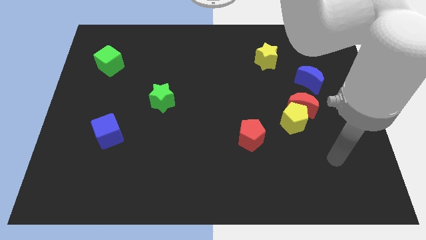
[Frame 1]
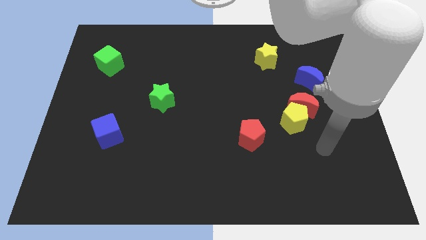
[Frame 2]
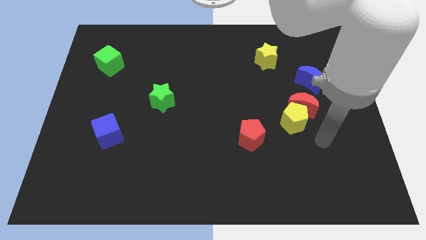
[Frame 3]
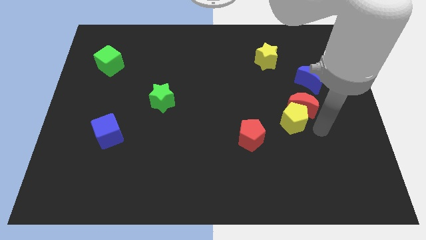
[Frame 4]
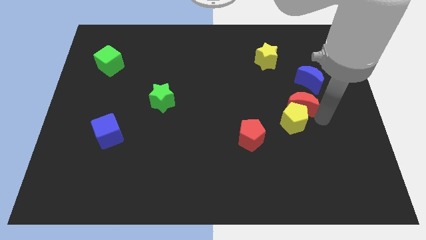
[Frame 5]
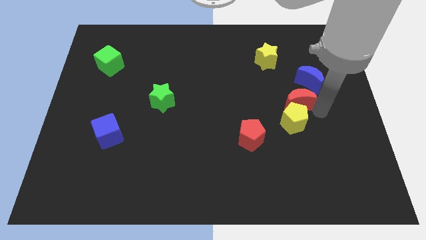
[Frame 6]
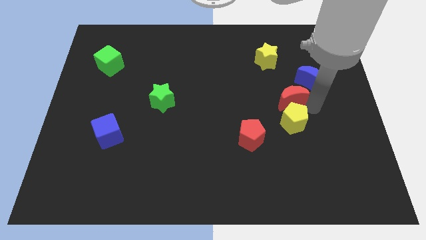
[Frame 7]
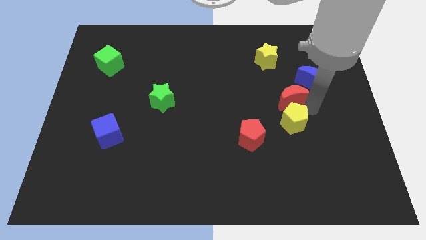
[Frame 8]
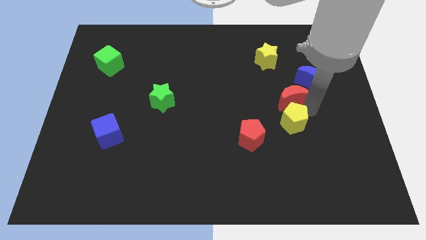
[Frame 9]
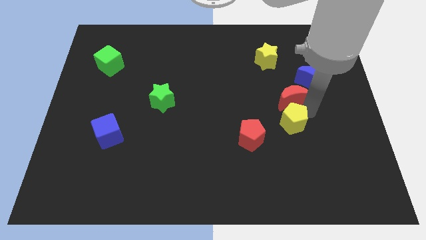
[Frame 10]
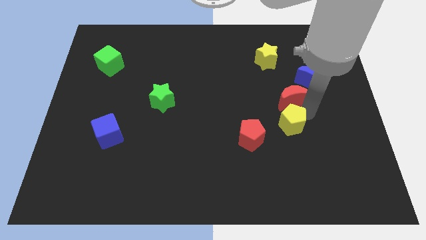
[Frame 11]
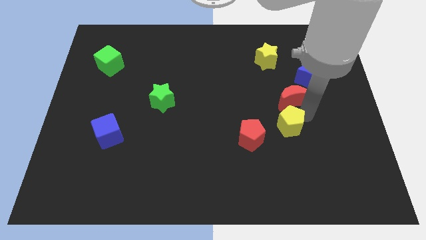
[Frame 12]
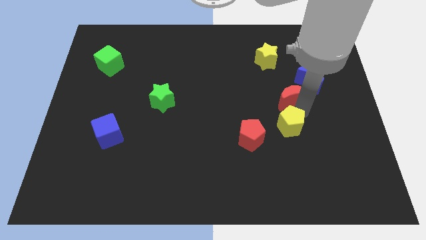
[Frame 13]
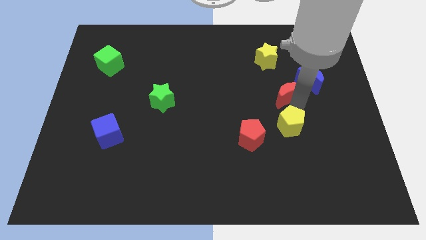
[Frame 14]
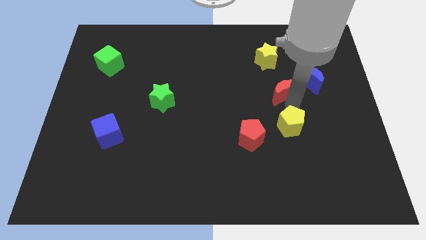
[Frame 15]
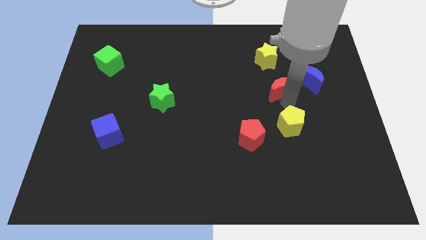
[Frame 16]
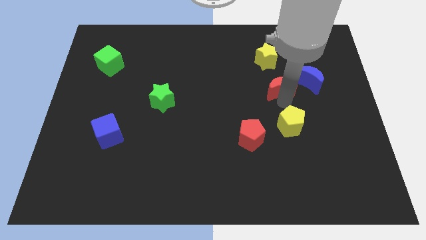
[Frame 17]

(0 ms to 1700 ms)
pull the yellow pentagon apart from the red moon

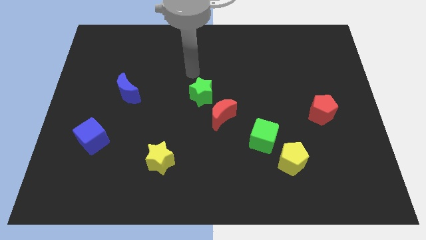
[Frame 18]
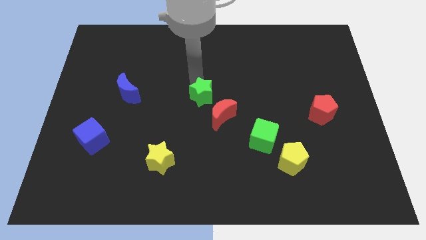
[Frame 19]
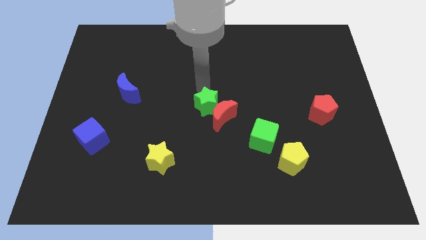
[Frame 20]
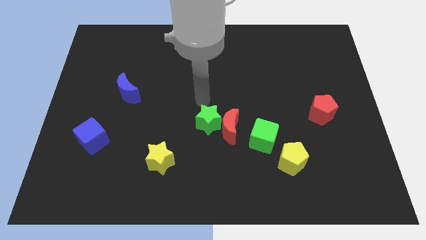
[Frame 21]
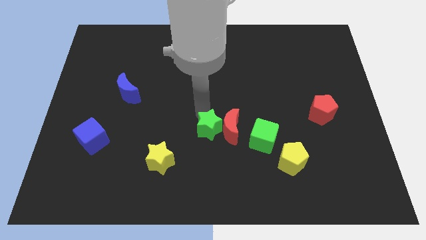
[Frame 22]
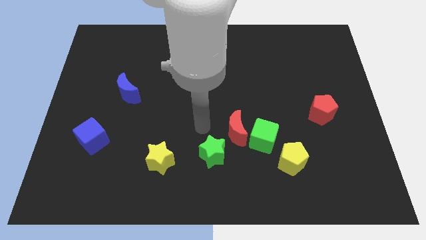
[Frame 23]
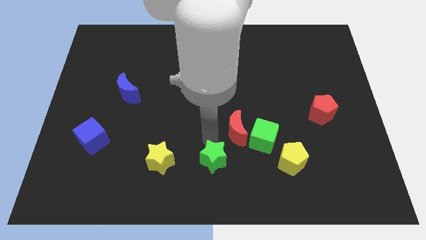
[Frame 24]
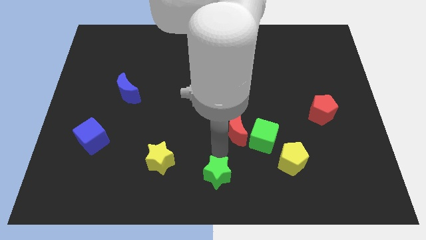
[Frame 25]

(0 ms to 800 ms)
pull the red moon apart from the green star

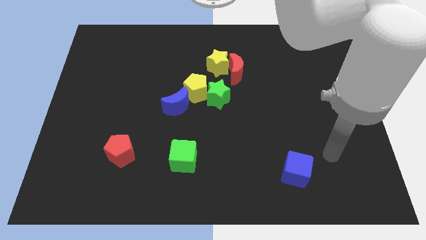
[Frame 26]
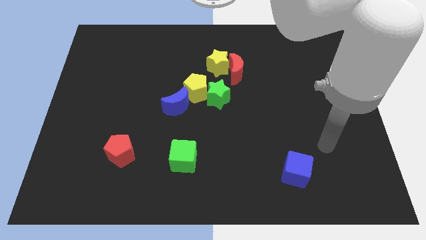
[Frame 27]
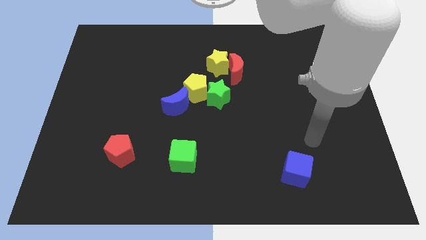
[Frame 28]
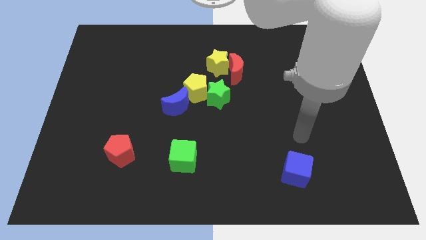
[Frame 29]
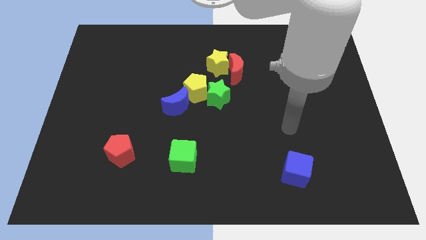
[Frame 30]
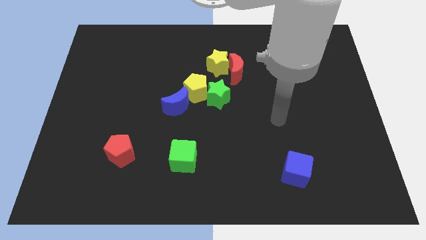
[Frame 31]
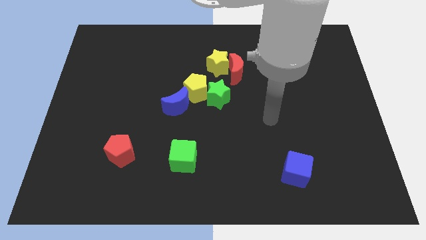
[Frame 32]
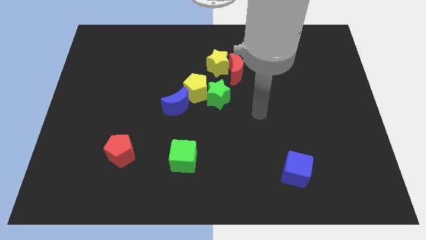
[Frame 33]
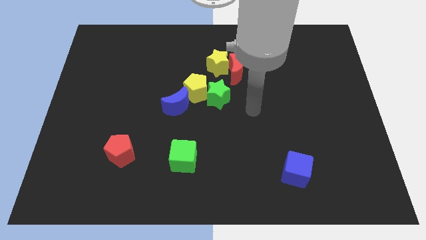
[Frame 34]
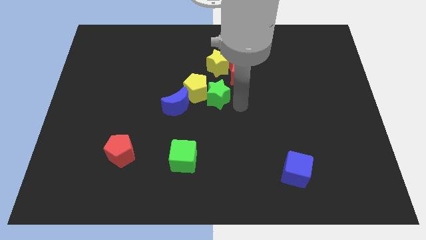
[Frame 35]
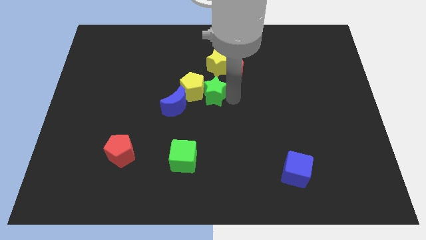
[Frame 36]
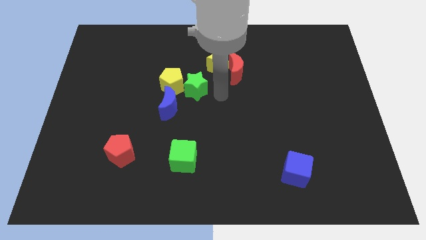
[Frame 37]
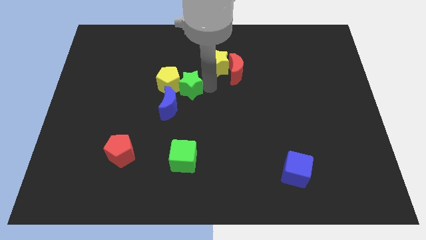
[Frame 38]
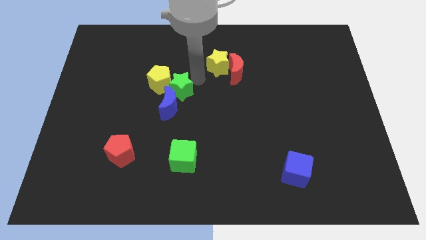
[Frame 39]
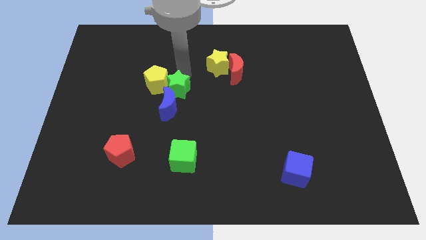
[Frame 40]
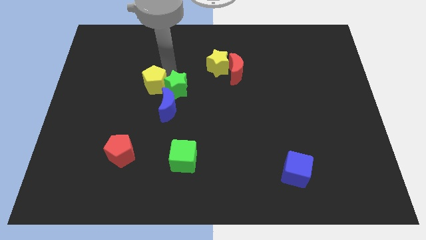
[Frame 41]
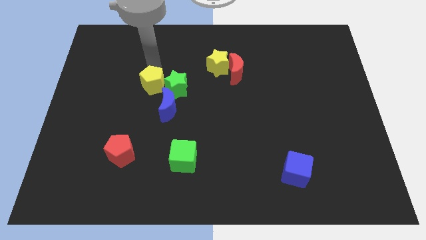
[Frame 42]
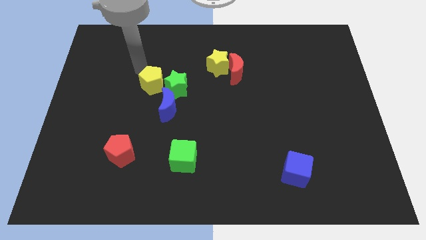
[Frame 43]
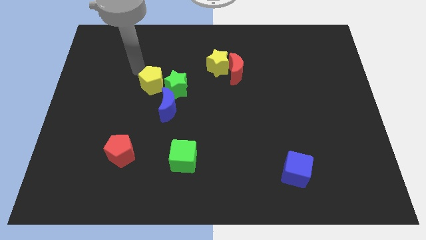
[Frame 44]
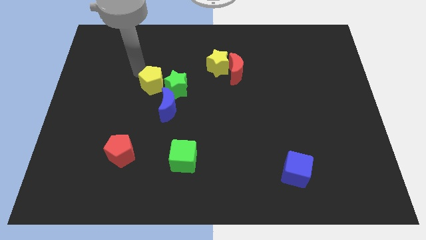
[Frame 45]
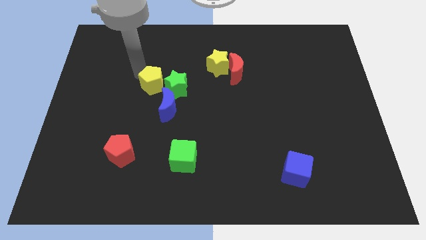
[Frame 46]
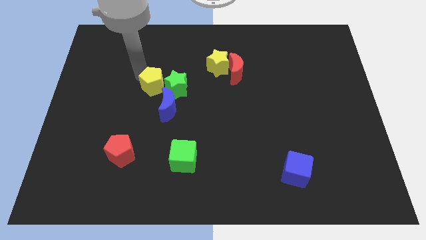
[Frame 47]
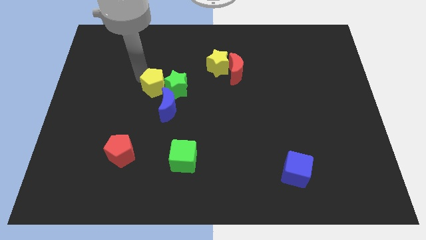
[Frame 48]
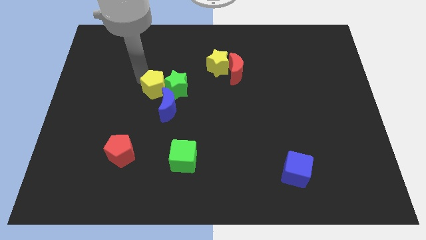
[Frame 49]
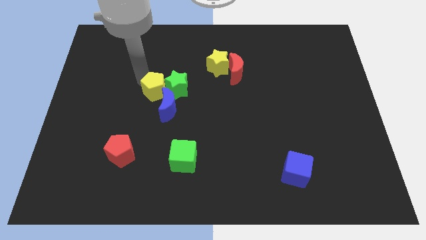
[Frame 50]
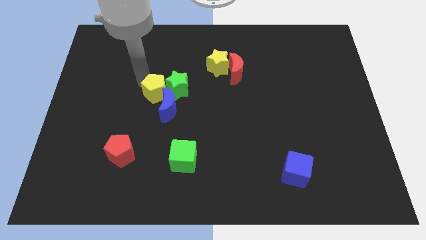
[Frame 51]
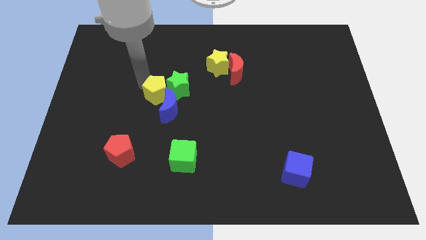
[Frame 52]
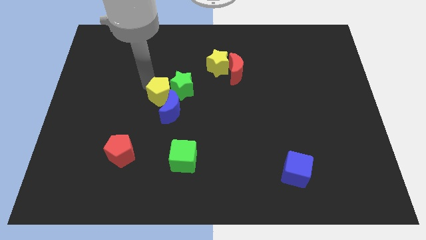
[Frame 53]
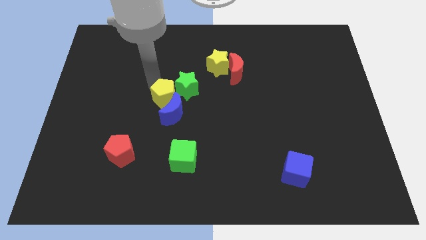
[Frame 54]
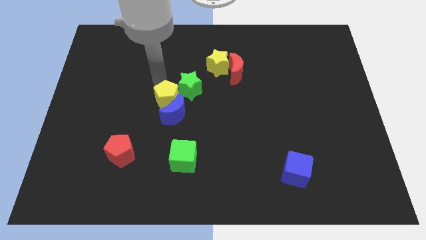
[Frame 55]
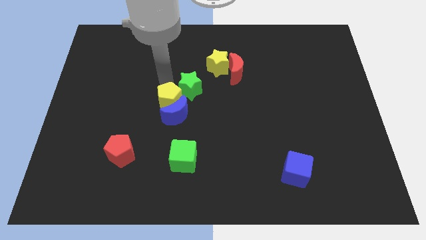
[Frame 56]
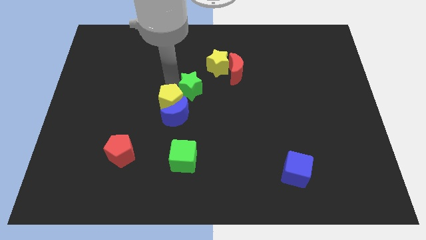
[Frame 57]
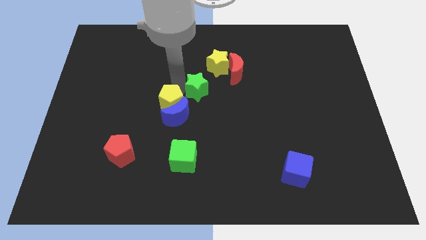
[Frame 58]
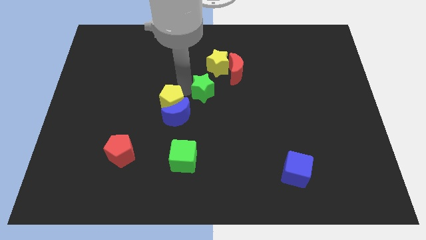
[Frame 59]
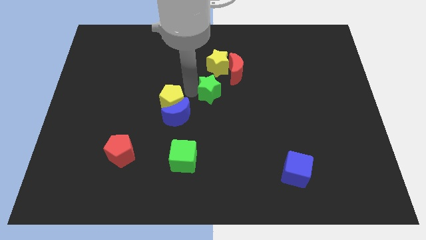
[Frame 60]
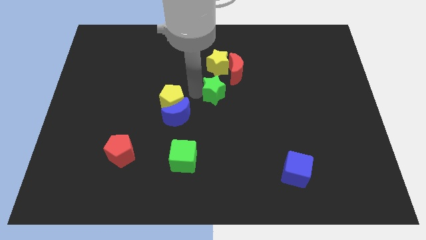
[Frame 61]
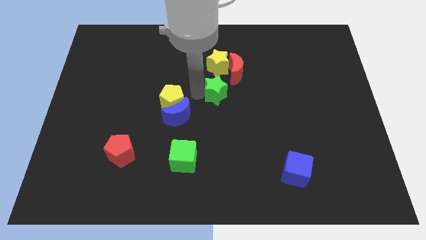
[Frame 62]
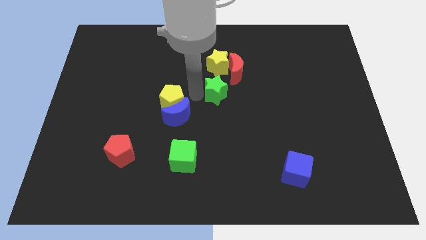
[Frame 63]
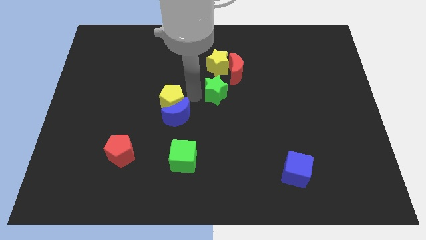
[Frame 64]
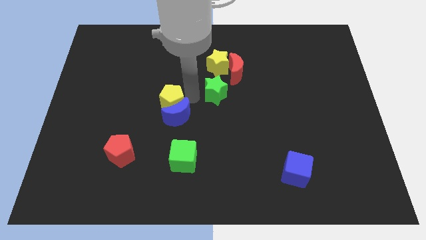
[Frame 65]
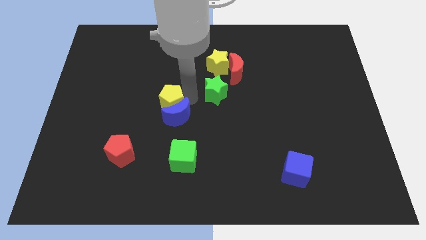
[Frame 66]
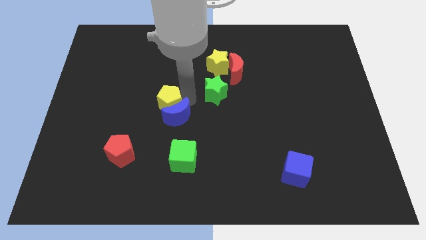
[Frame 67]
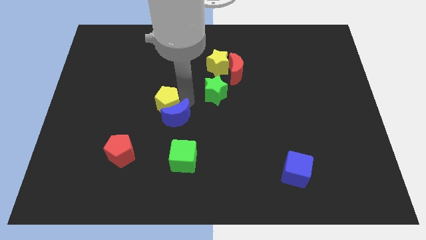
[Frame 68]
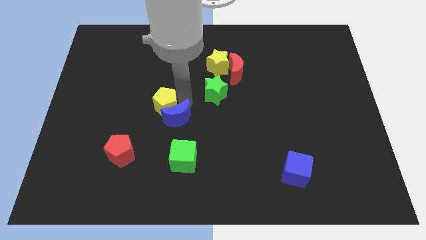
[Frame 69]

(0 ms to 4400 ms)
separate the yellow pentagon from the group of blocks

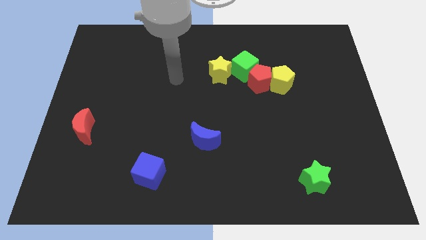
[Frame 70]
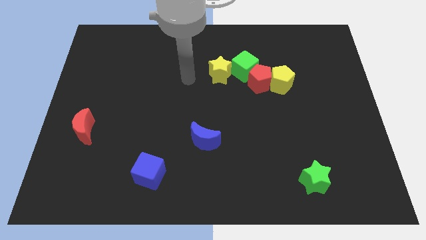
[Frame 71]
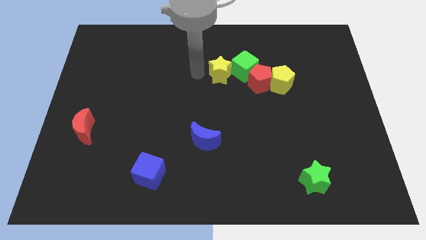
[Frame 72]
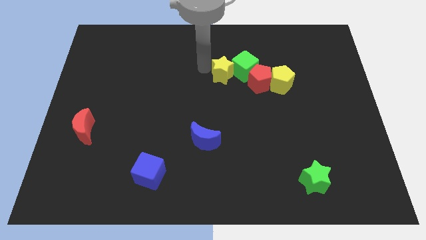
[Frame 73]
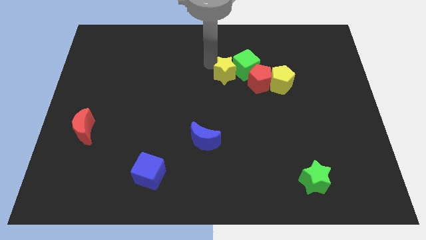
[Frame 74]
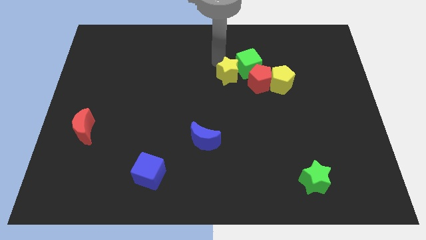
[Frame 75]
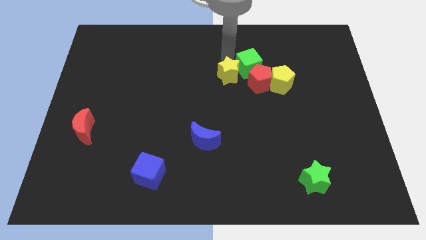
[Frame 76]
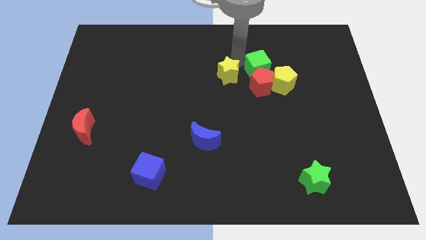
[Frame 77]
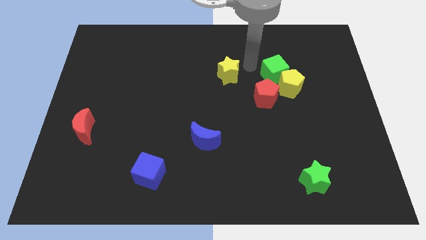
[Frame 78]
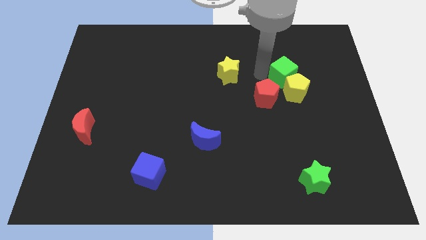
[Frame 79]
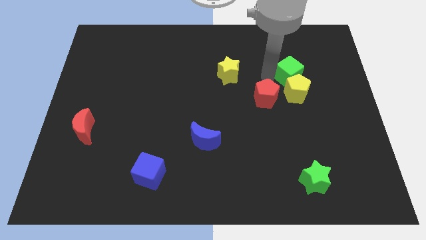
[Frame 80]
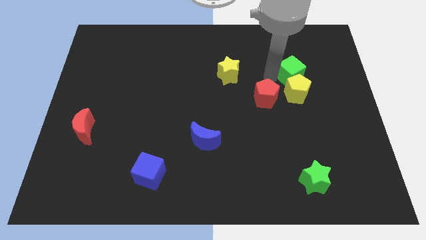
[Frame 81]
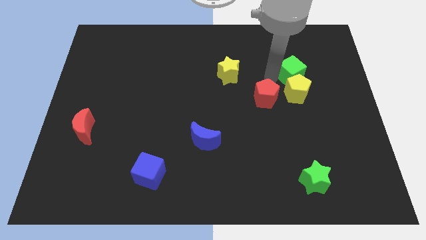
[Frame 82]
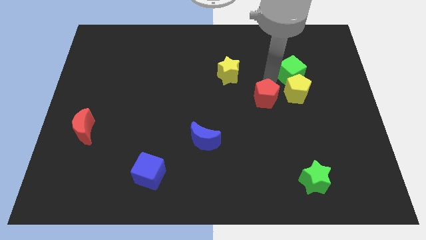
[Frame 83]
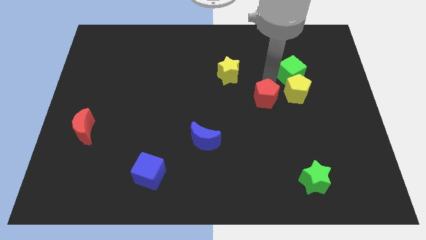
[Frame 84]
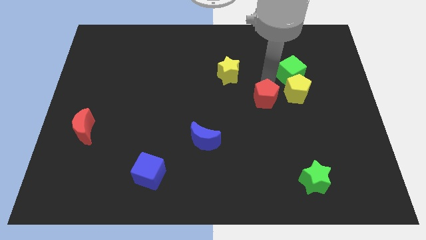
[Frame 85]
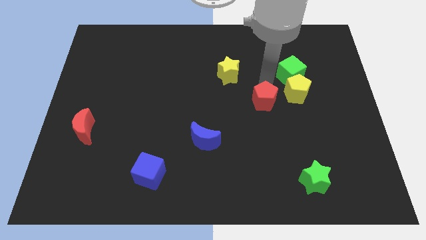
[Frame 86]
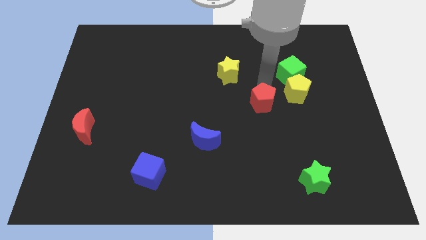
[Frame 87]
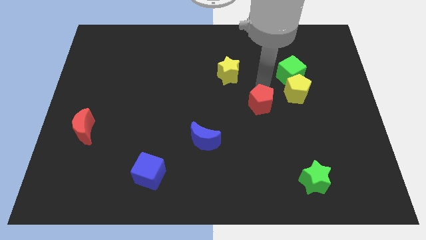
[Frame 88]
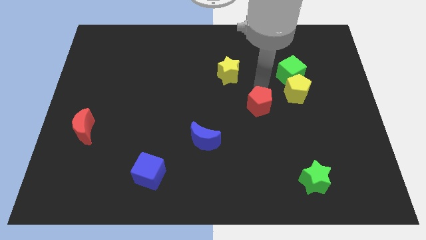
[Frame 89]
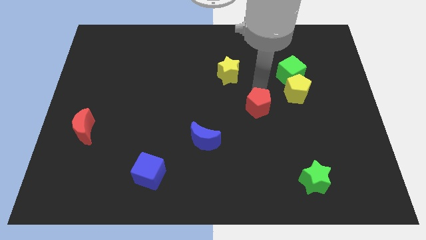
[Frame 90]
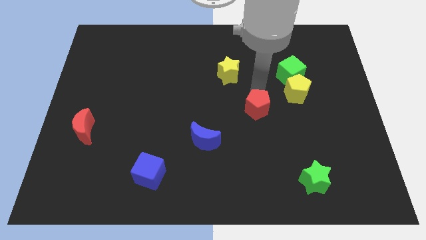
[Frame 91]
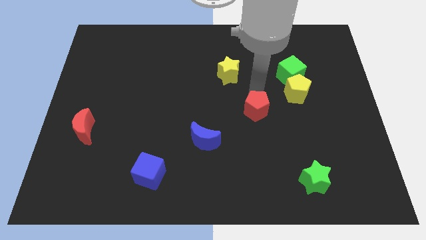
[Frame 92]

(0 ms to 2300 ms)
separate the red pentagon from the group

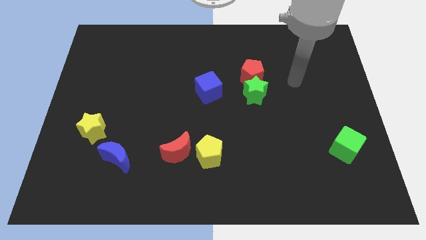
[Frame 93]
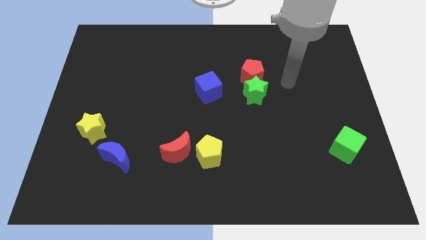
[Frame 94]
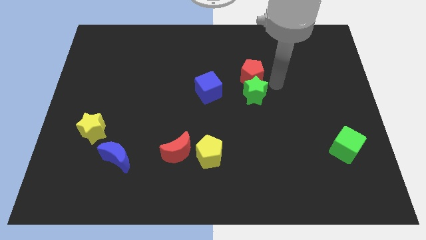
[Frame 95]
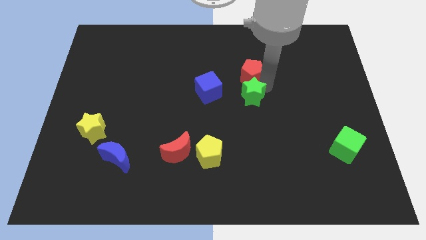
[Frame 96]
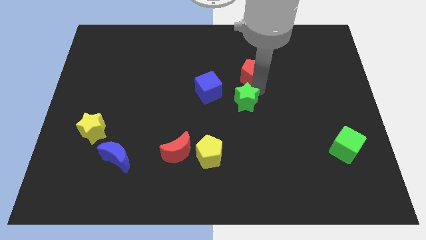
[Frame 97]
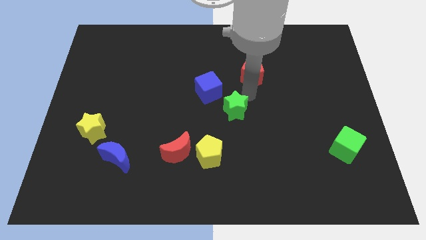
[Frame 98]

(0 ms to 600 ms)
separate the red pentagon from the green star
